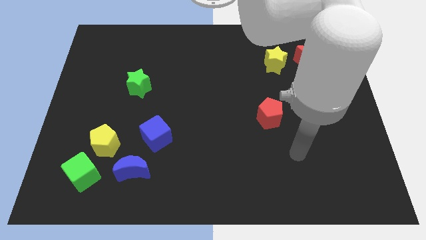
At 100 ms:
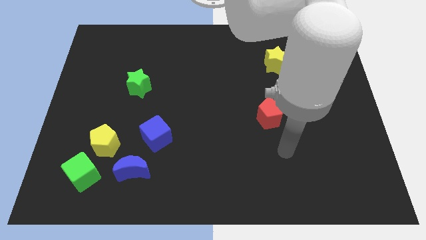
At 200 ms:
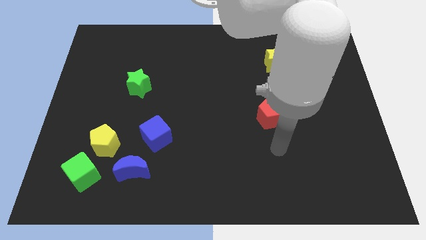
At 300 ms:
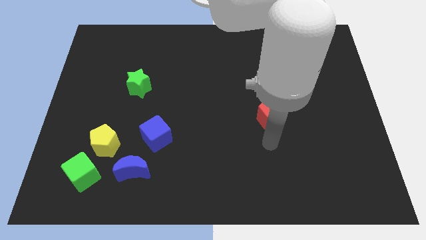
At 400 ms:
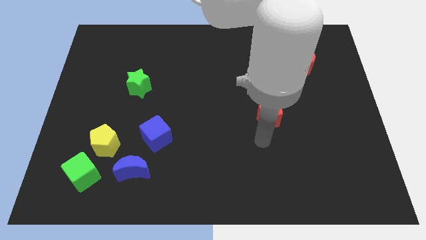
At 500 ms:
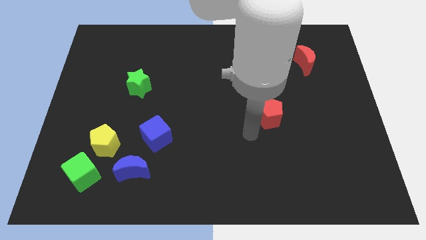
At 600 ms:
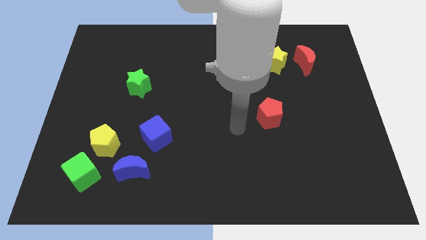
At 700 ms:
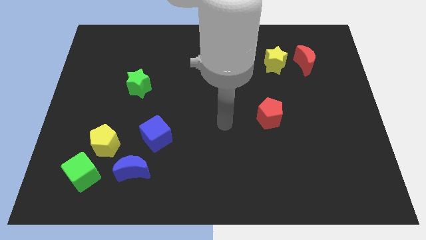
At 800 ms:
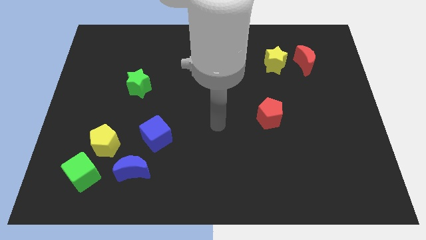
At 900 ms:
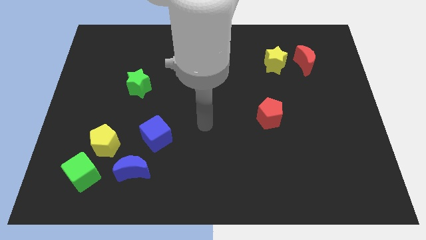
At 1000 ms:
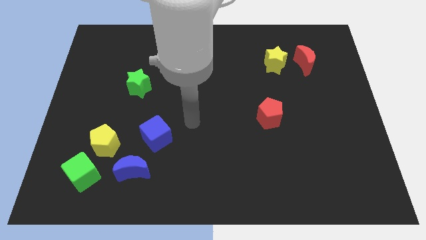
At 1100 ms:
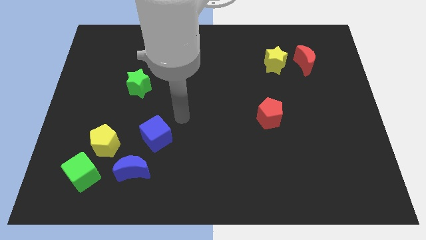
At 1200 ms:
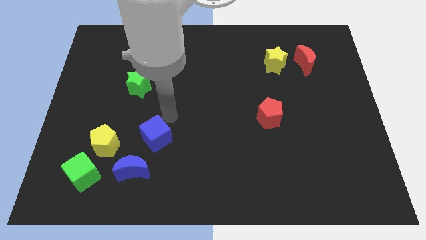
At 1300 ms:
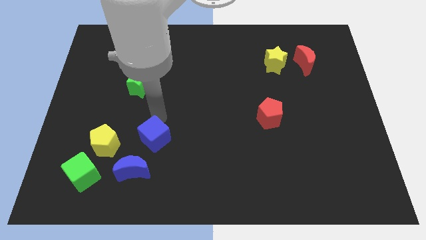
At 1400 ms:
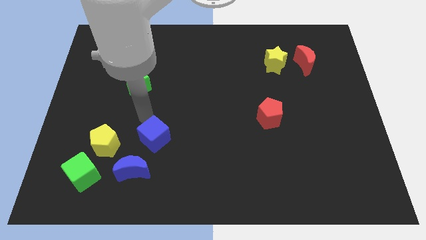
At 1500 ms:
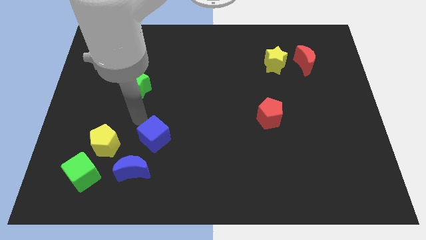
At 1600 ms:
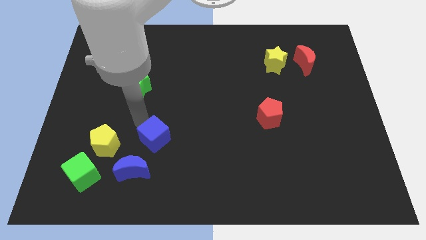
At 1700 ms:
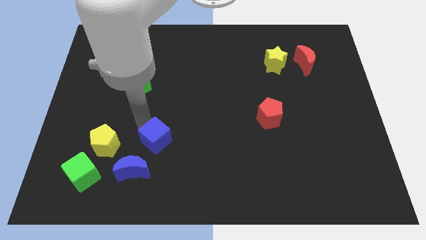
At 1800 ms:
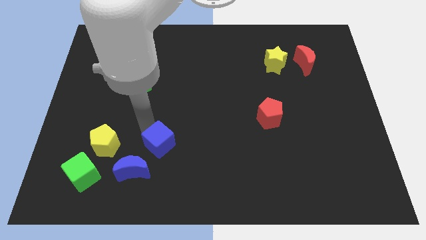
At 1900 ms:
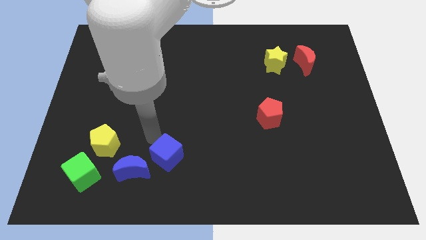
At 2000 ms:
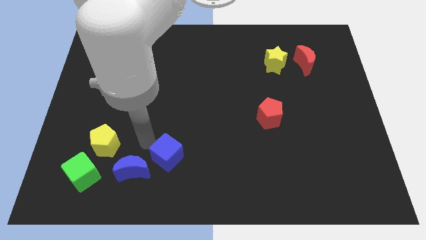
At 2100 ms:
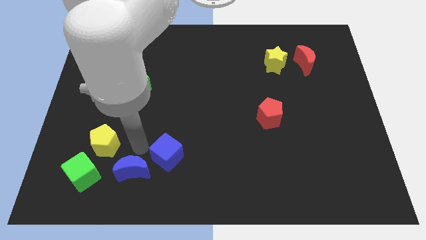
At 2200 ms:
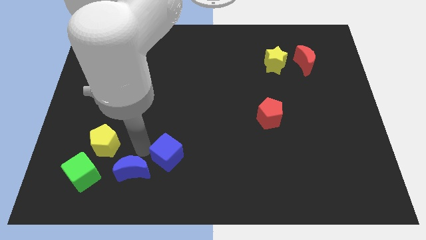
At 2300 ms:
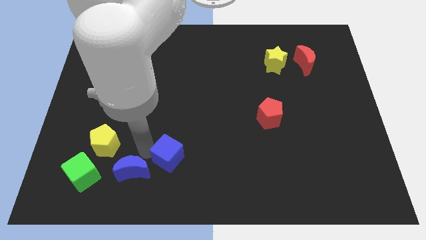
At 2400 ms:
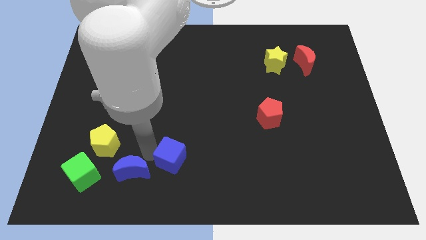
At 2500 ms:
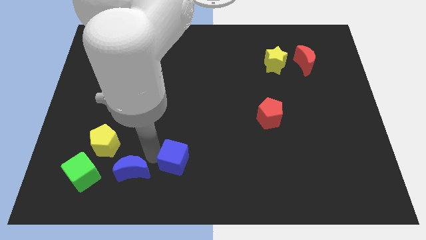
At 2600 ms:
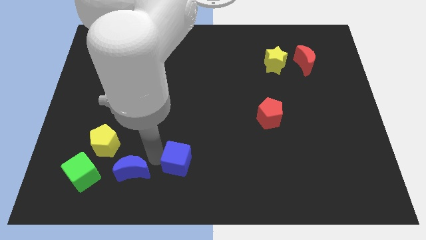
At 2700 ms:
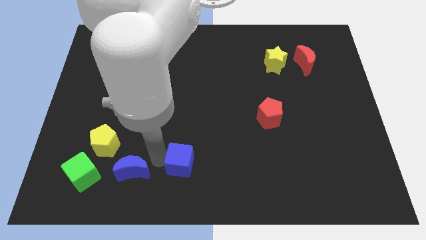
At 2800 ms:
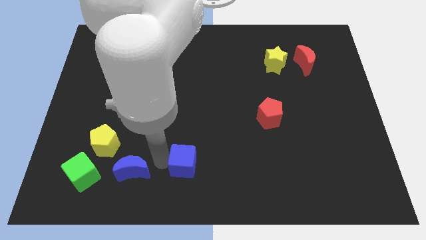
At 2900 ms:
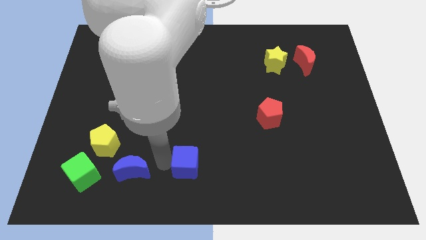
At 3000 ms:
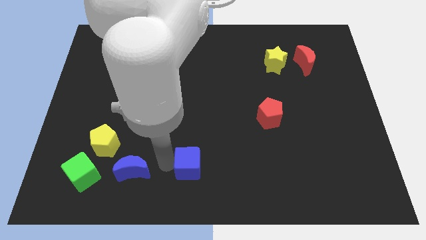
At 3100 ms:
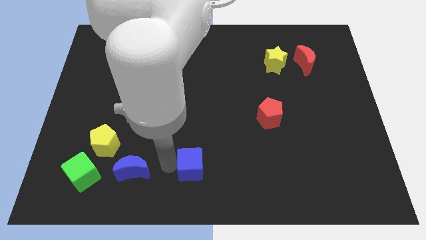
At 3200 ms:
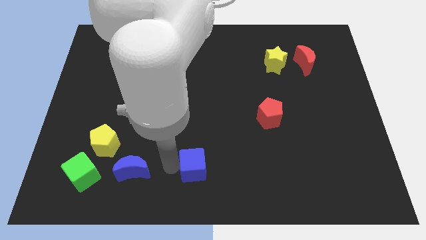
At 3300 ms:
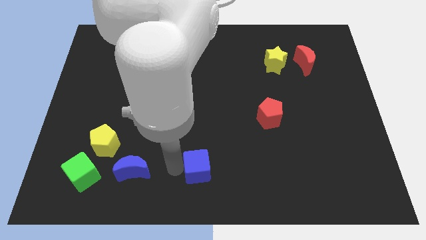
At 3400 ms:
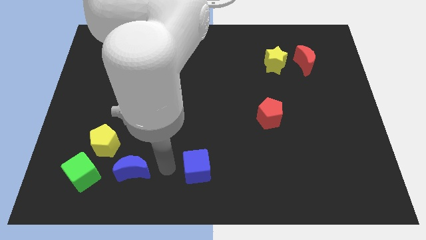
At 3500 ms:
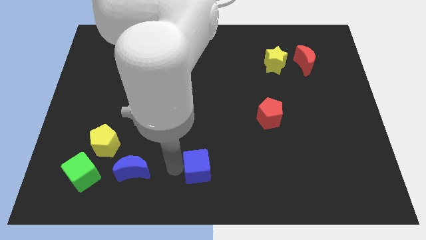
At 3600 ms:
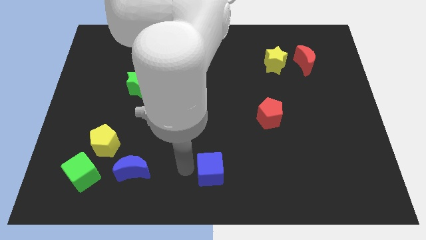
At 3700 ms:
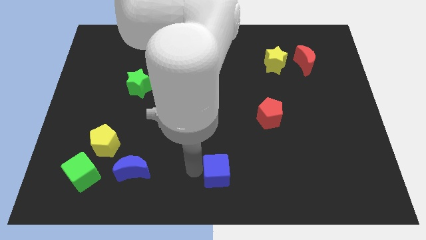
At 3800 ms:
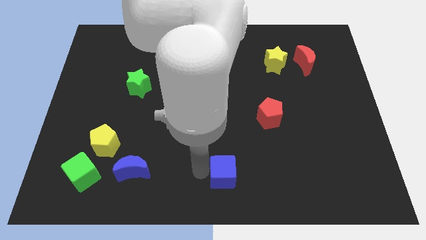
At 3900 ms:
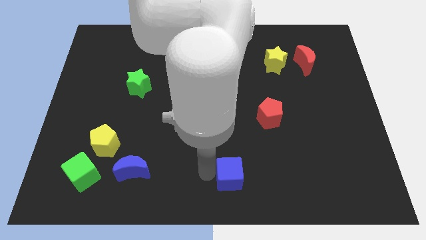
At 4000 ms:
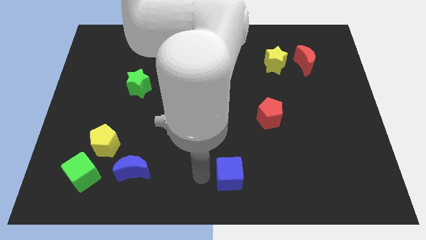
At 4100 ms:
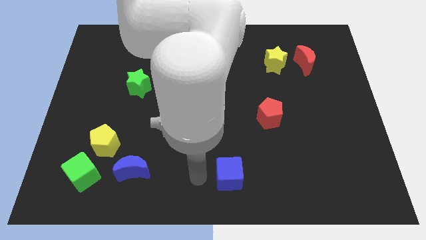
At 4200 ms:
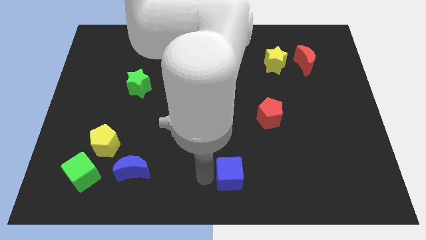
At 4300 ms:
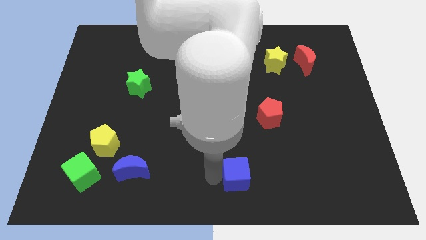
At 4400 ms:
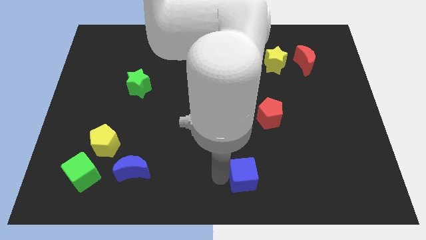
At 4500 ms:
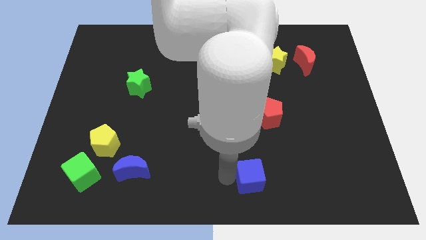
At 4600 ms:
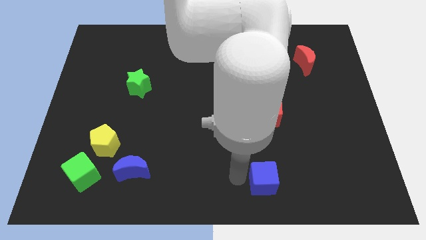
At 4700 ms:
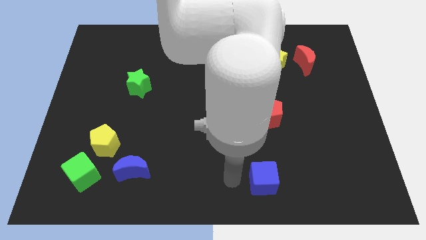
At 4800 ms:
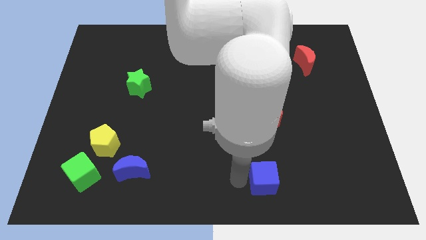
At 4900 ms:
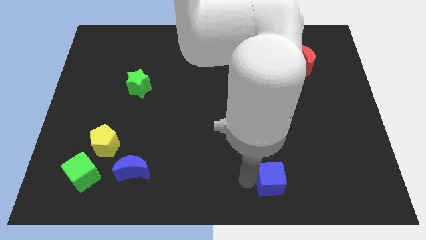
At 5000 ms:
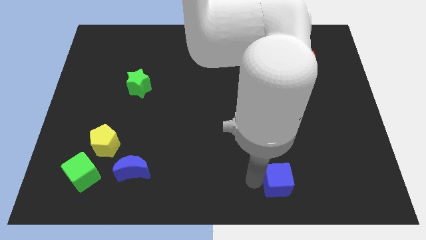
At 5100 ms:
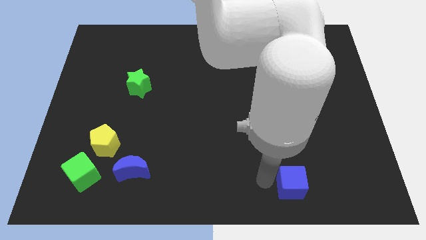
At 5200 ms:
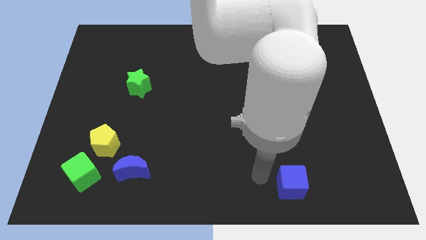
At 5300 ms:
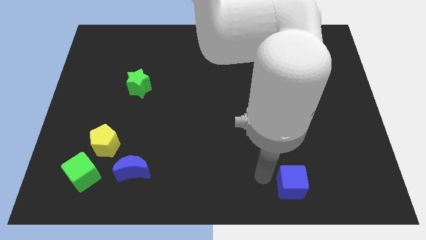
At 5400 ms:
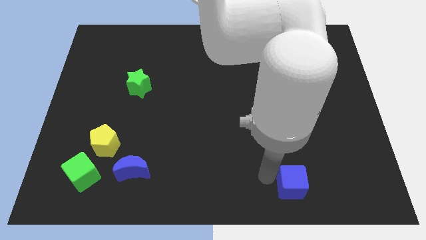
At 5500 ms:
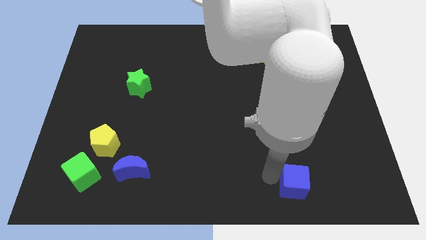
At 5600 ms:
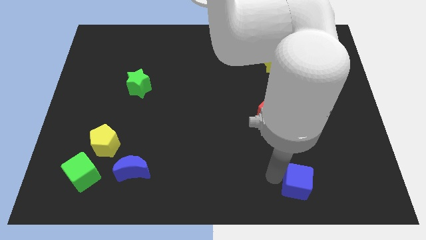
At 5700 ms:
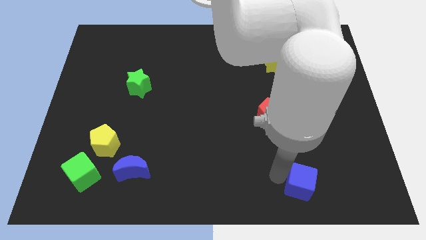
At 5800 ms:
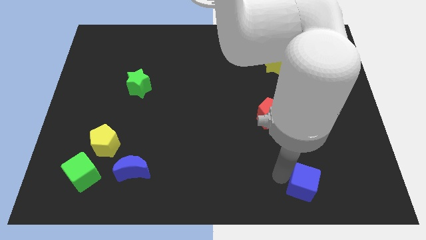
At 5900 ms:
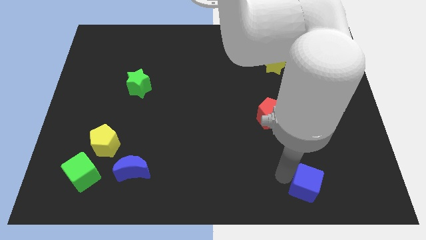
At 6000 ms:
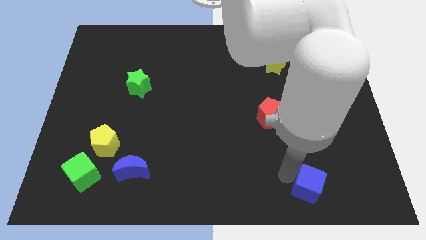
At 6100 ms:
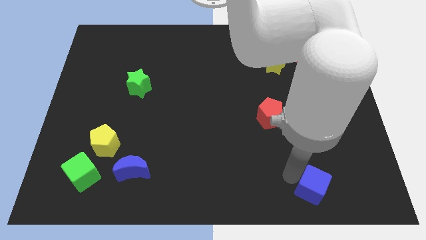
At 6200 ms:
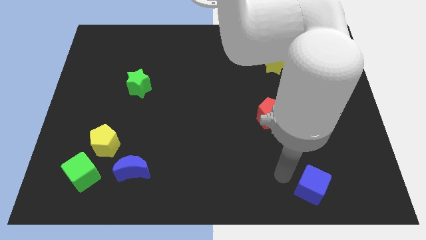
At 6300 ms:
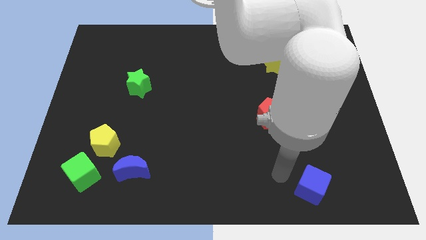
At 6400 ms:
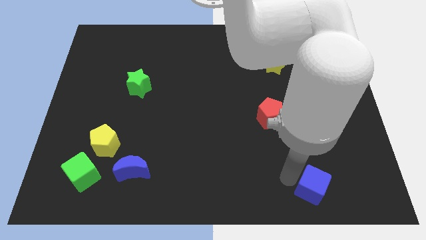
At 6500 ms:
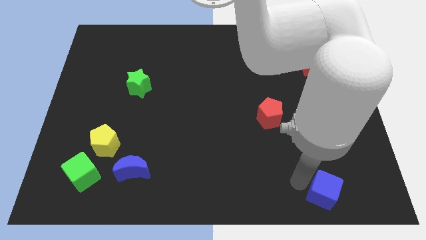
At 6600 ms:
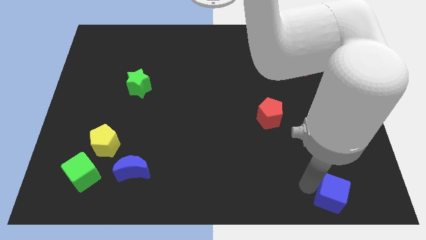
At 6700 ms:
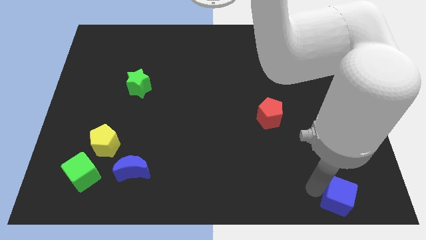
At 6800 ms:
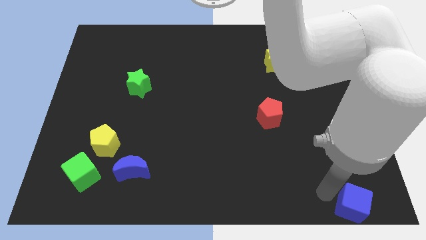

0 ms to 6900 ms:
slide the blue cube to the bottom right of the board
